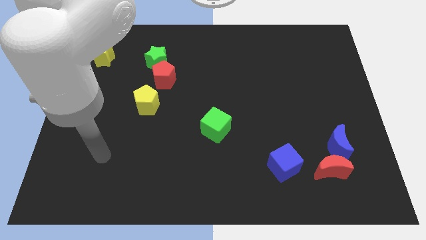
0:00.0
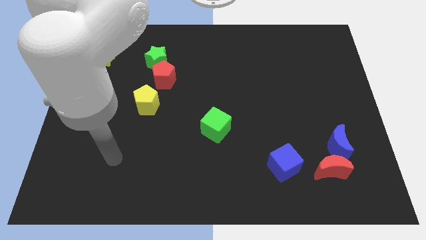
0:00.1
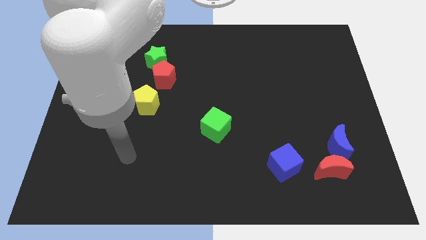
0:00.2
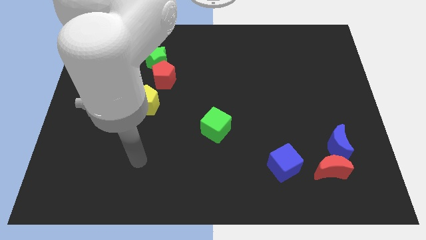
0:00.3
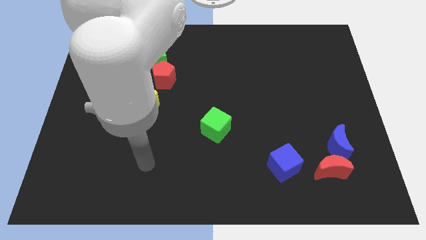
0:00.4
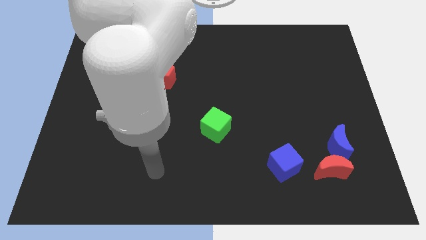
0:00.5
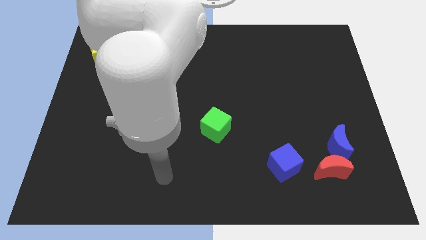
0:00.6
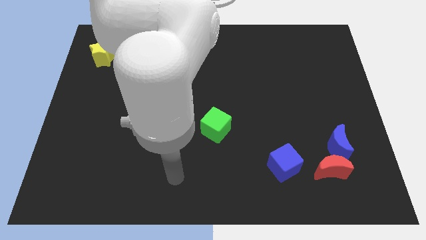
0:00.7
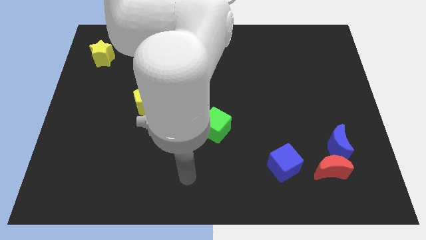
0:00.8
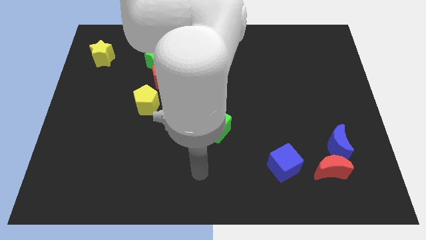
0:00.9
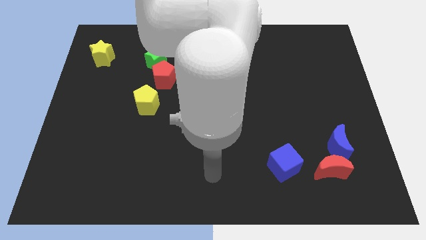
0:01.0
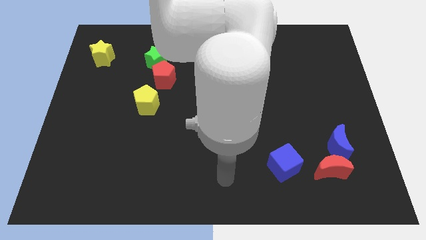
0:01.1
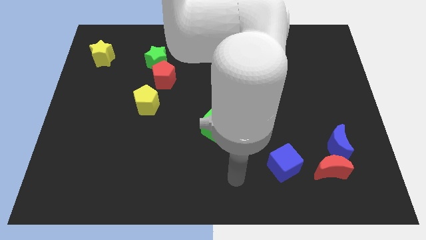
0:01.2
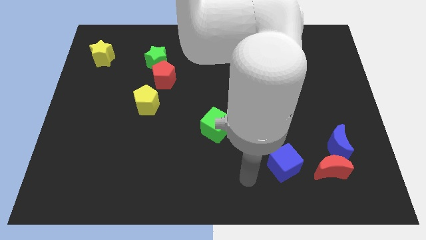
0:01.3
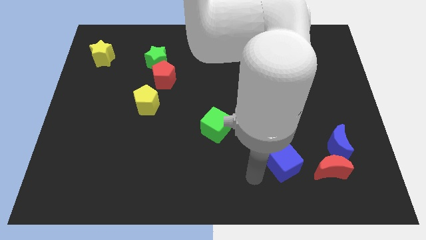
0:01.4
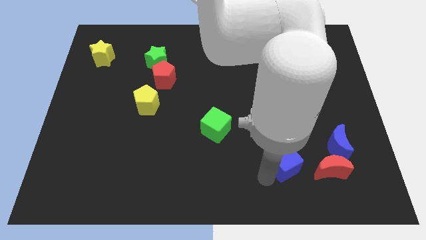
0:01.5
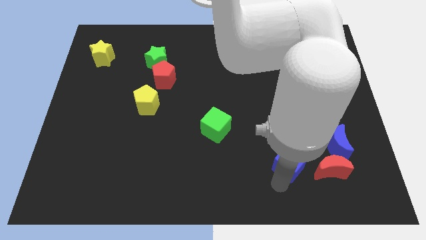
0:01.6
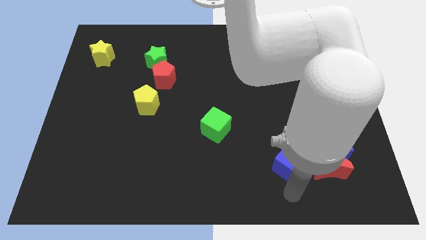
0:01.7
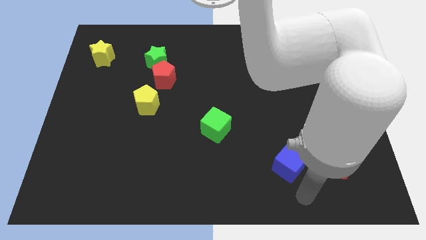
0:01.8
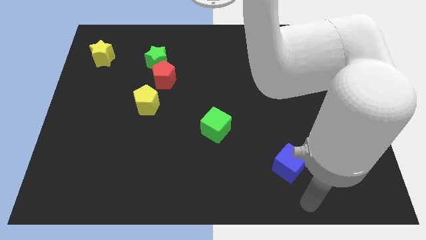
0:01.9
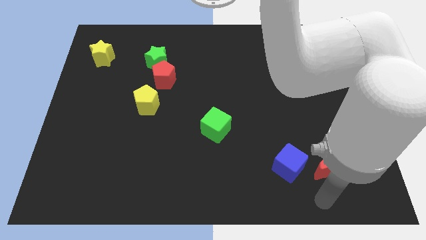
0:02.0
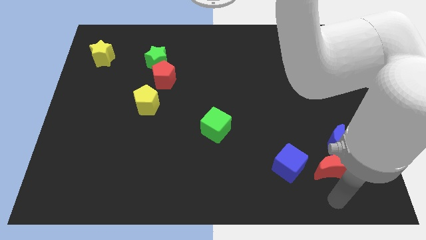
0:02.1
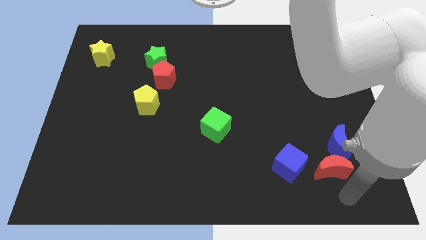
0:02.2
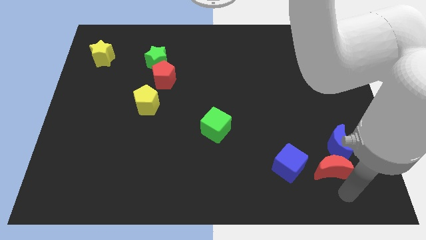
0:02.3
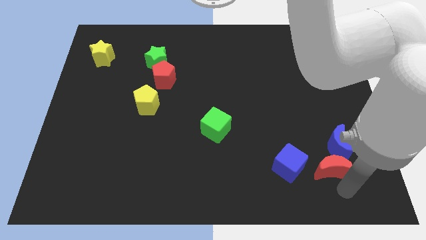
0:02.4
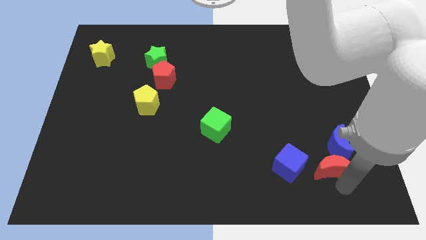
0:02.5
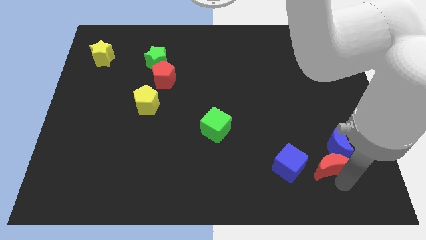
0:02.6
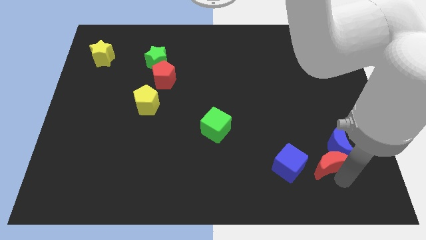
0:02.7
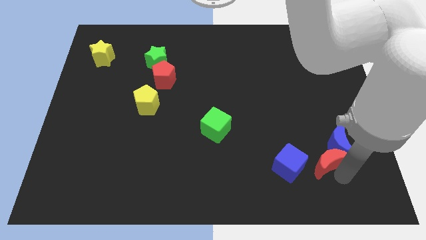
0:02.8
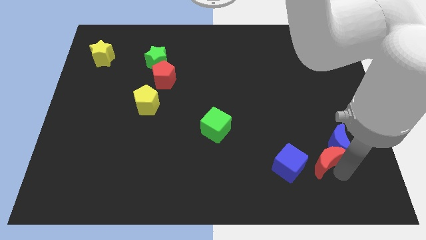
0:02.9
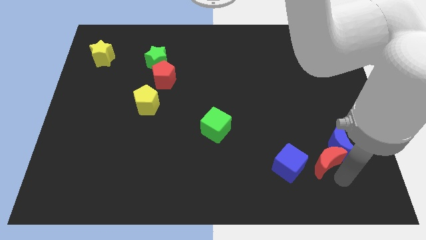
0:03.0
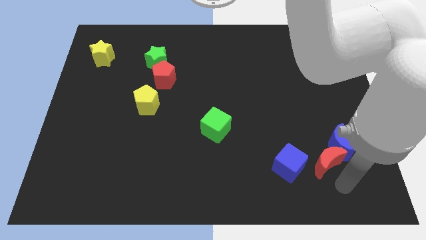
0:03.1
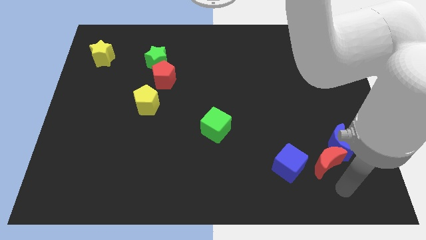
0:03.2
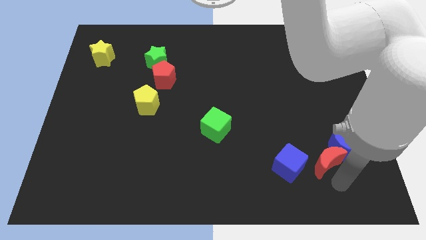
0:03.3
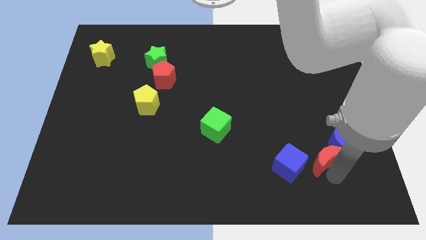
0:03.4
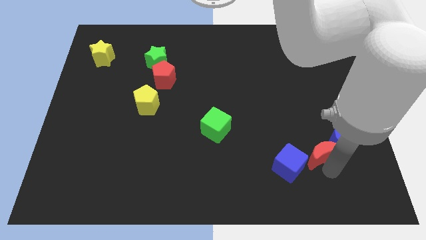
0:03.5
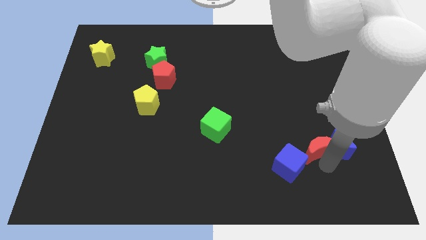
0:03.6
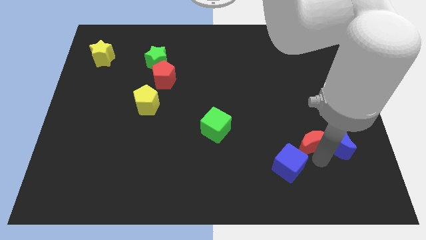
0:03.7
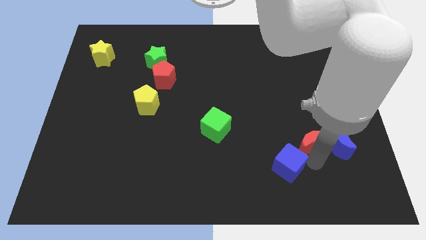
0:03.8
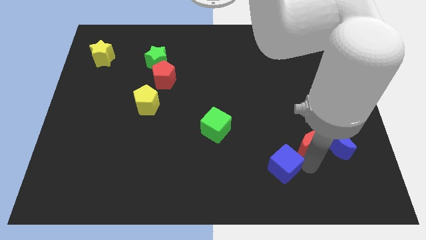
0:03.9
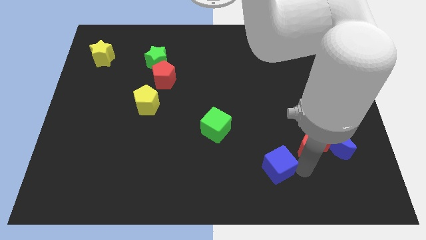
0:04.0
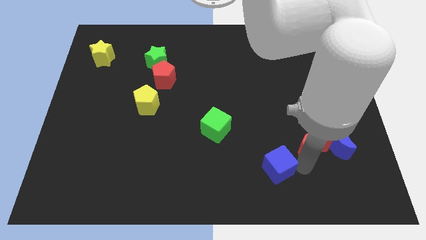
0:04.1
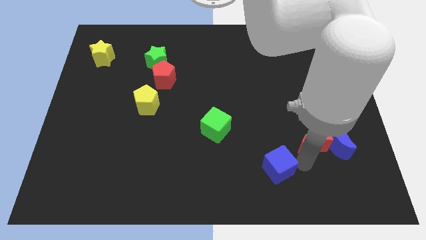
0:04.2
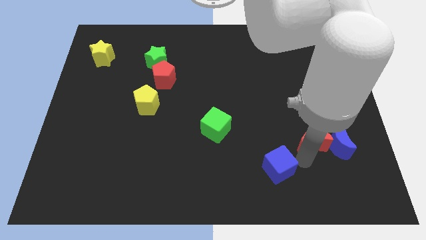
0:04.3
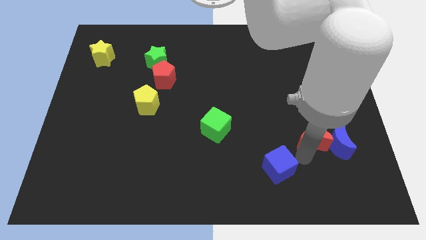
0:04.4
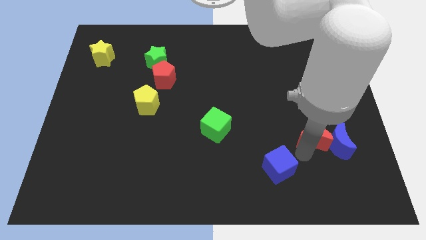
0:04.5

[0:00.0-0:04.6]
slide the red moon a little up

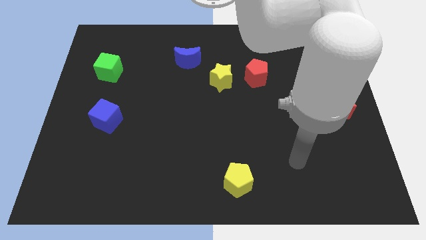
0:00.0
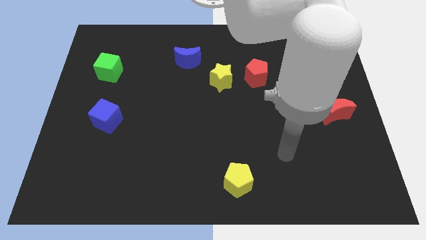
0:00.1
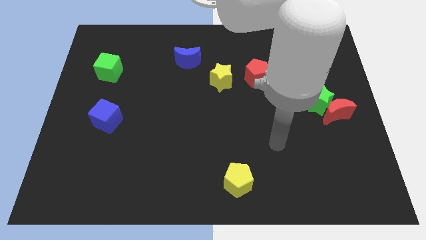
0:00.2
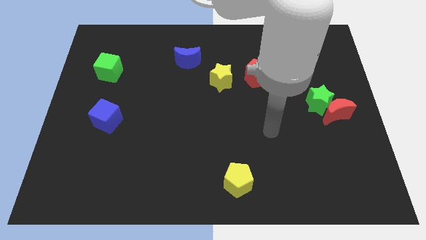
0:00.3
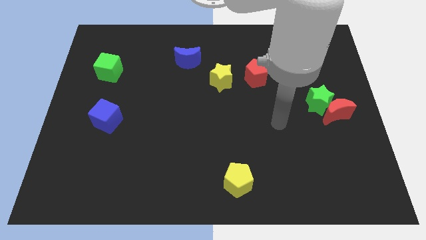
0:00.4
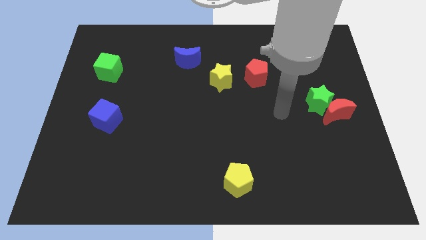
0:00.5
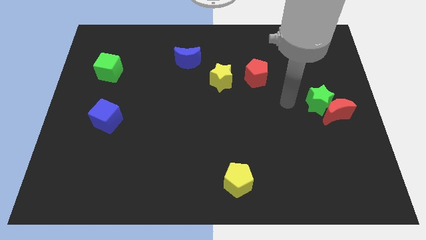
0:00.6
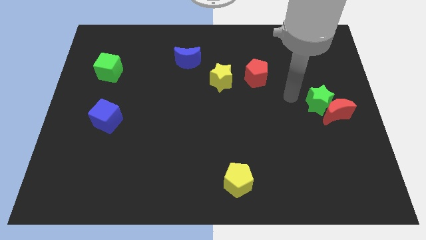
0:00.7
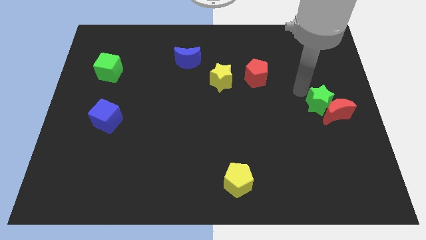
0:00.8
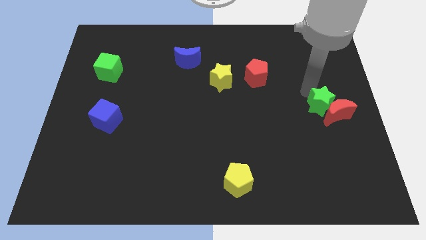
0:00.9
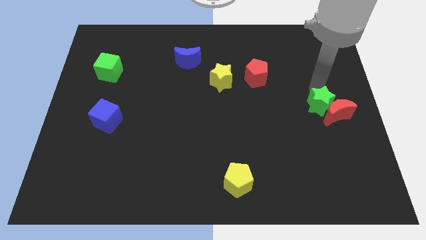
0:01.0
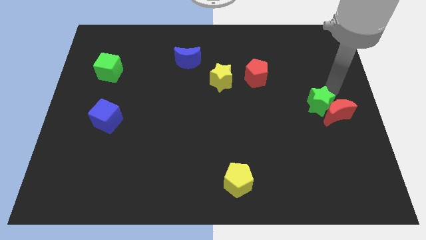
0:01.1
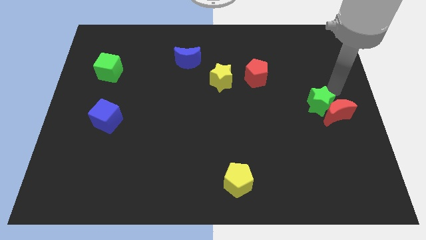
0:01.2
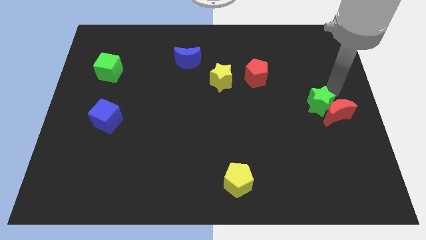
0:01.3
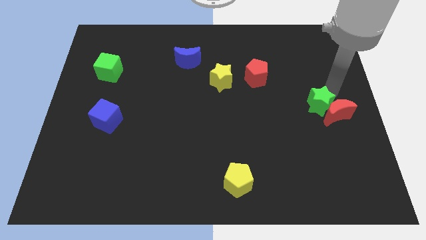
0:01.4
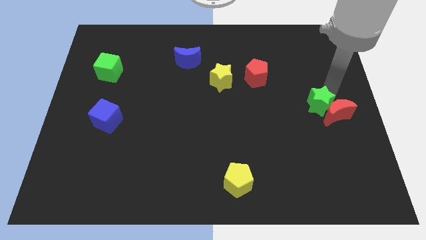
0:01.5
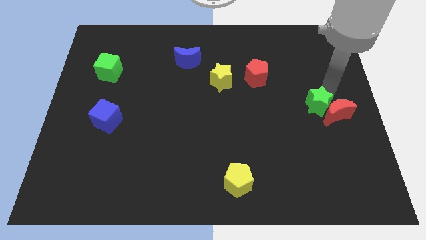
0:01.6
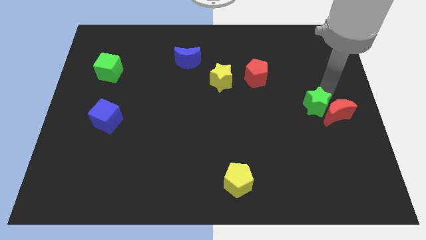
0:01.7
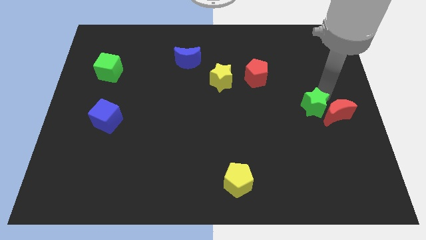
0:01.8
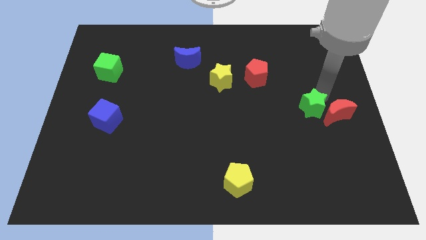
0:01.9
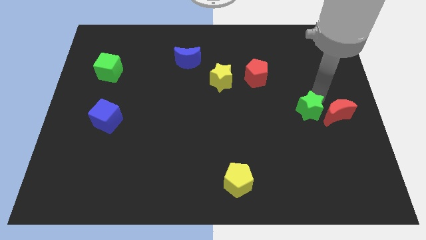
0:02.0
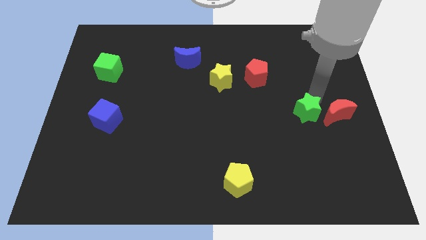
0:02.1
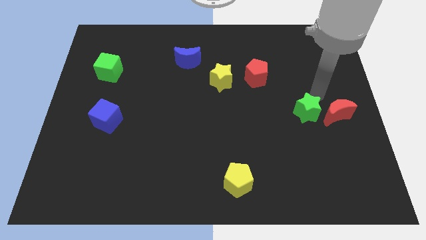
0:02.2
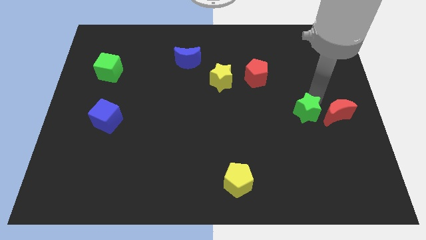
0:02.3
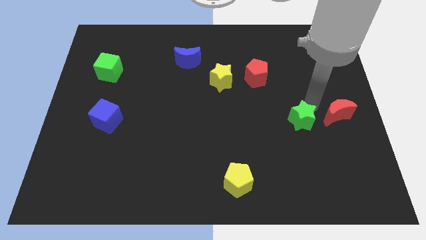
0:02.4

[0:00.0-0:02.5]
slightly slide the green star downwards and then left

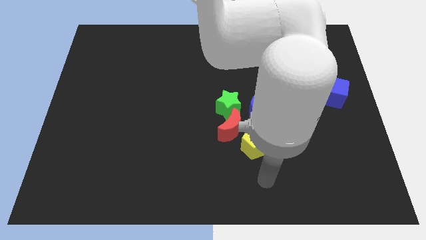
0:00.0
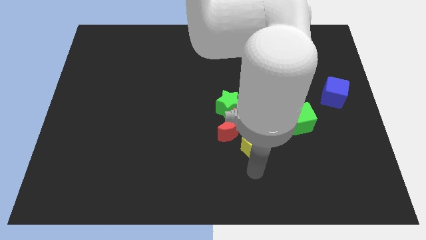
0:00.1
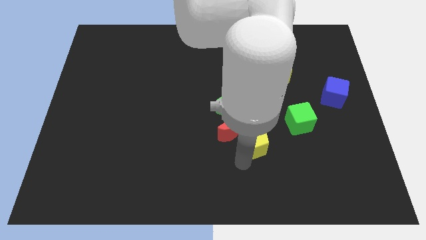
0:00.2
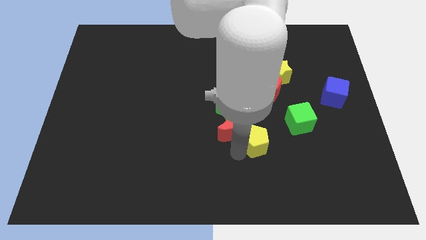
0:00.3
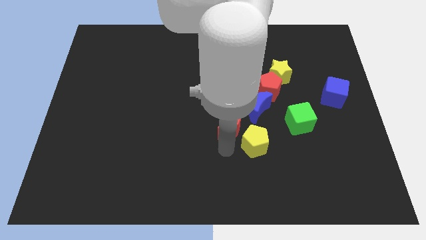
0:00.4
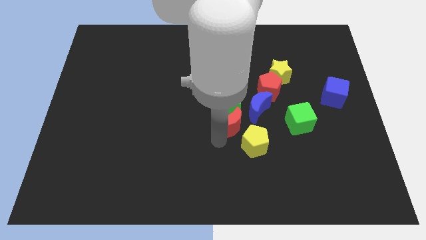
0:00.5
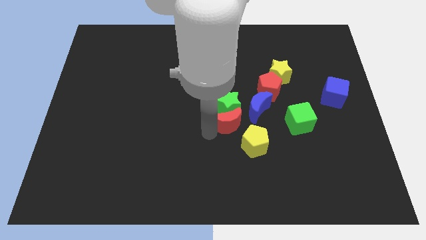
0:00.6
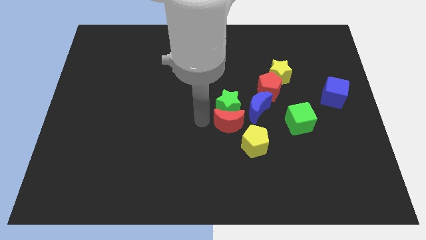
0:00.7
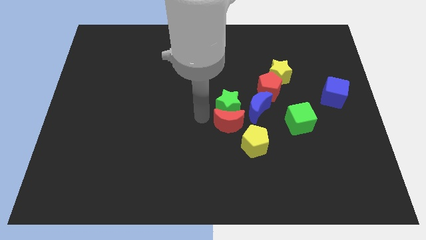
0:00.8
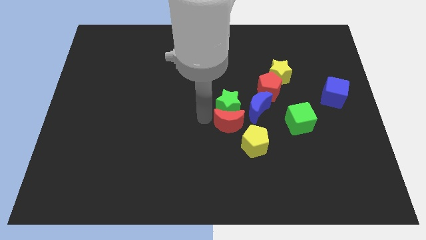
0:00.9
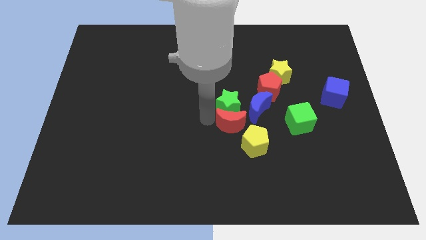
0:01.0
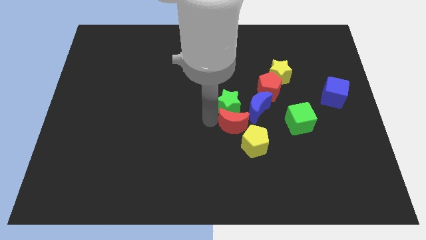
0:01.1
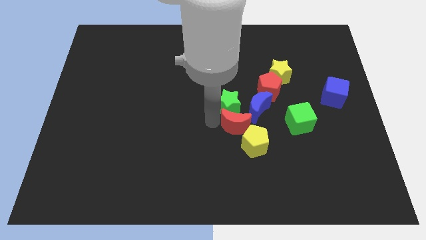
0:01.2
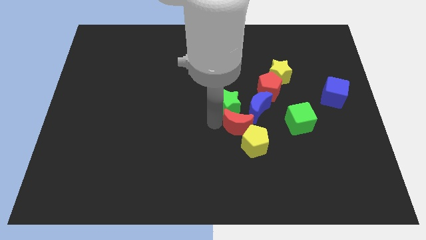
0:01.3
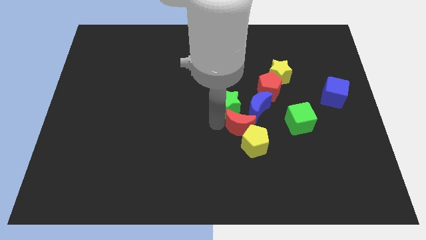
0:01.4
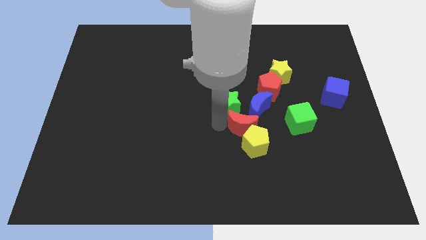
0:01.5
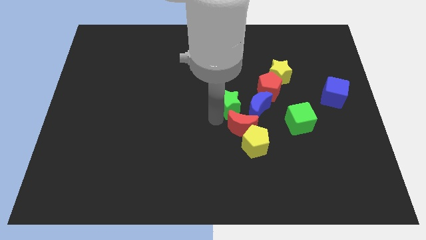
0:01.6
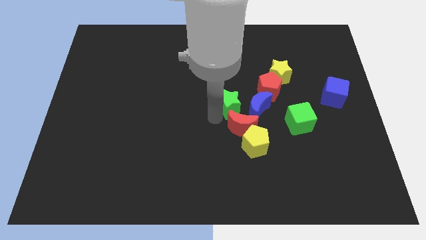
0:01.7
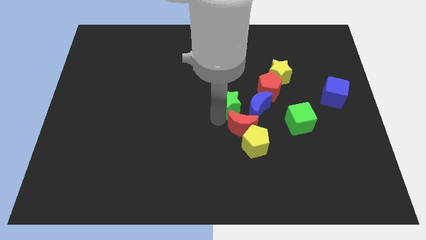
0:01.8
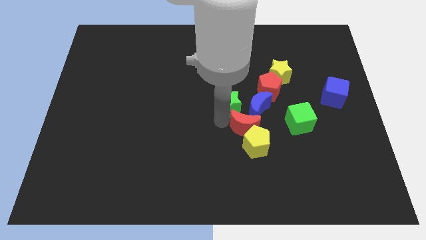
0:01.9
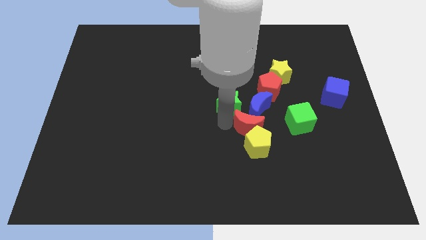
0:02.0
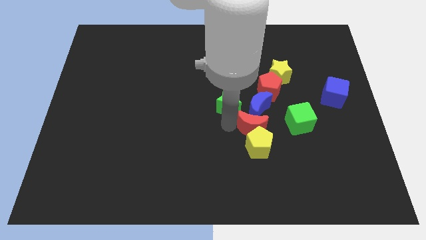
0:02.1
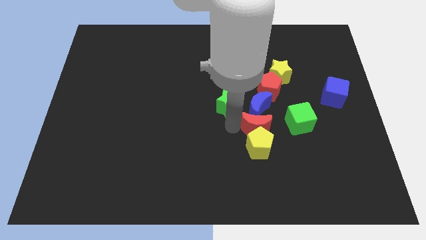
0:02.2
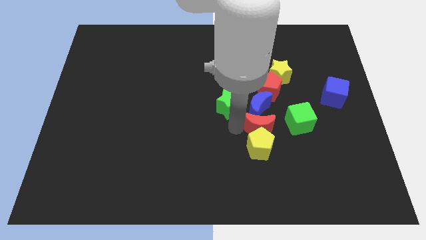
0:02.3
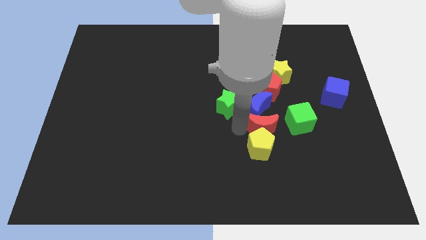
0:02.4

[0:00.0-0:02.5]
slide the red moon right a little
